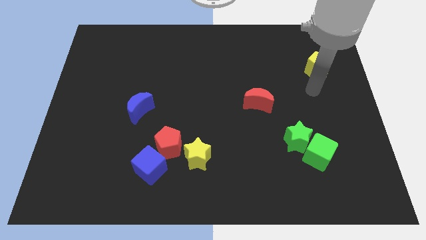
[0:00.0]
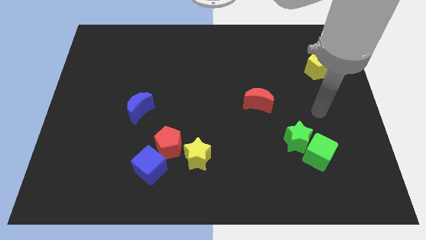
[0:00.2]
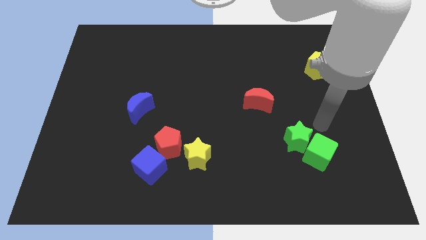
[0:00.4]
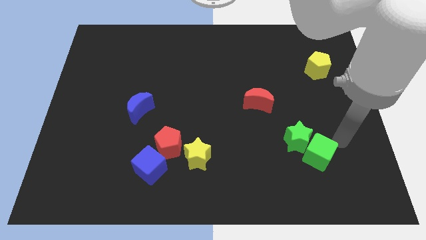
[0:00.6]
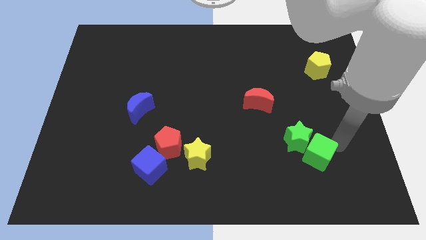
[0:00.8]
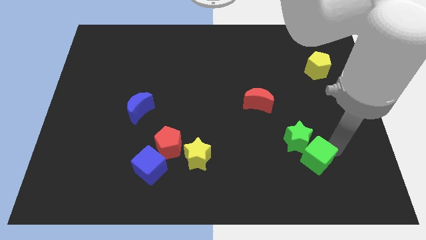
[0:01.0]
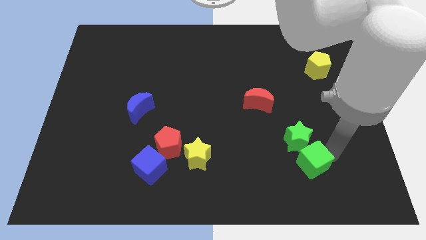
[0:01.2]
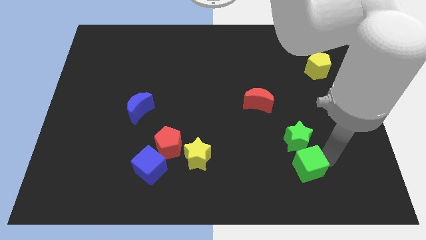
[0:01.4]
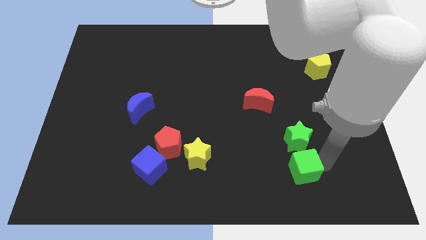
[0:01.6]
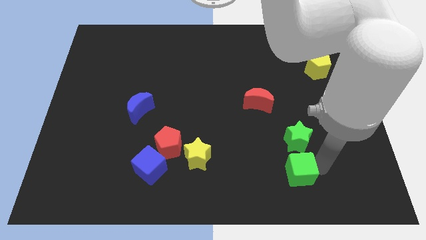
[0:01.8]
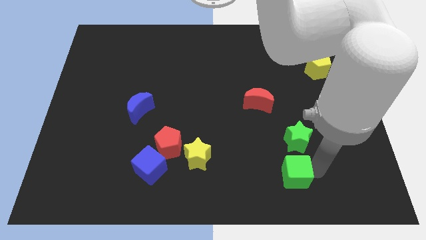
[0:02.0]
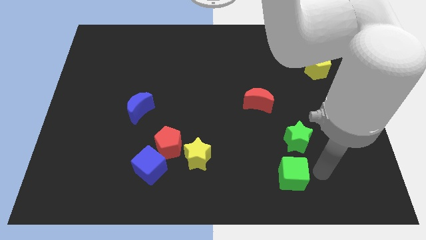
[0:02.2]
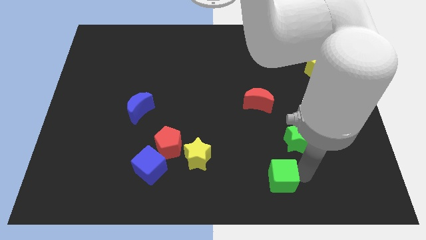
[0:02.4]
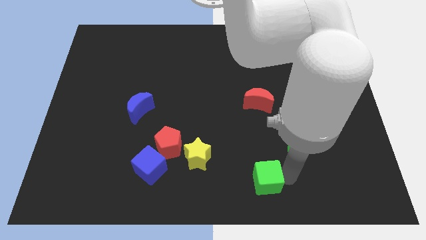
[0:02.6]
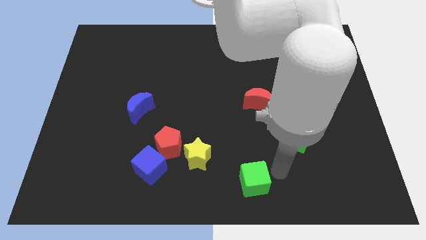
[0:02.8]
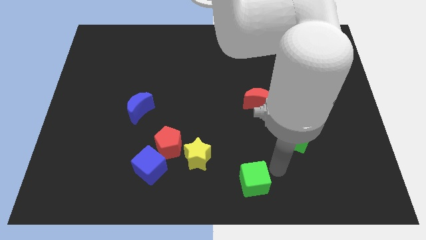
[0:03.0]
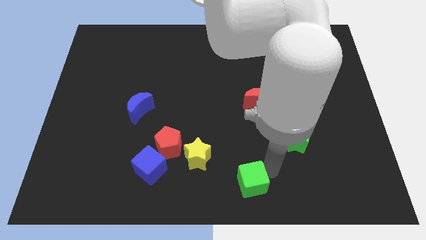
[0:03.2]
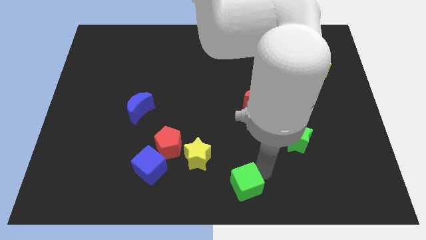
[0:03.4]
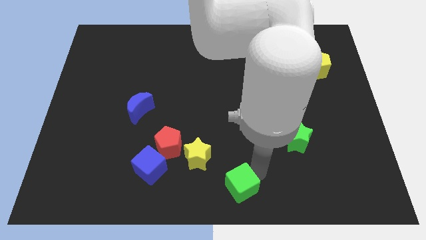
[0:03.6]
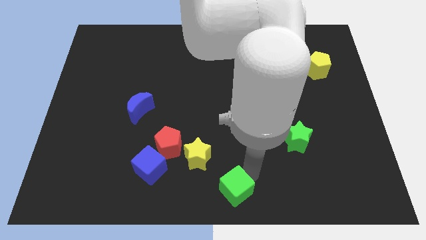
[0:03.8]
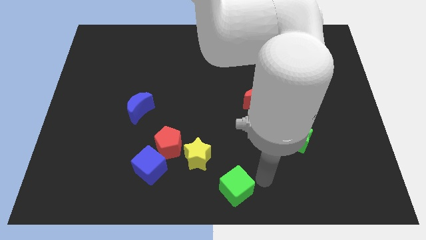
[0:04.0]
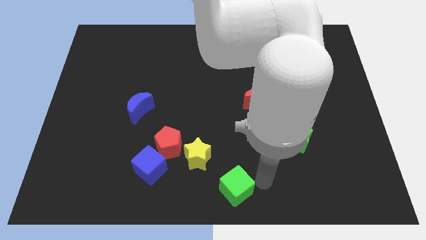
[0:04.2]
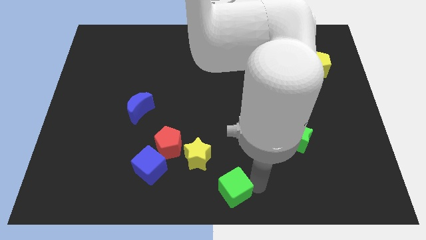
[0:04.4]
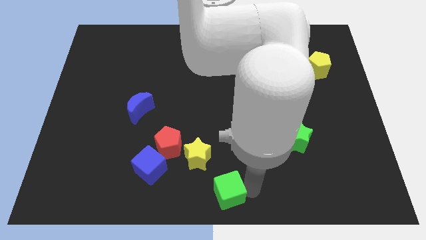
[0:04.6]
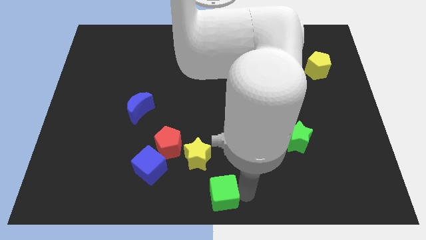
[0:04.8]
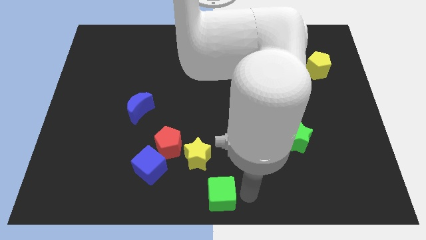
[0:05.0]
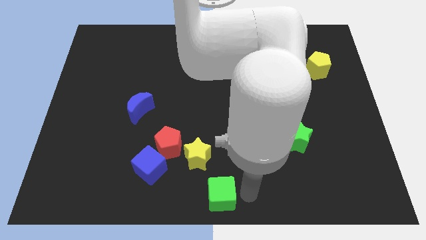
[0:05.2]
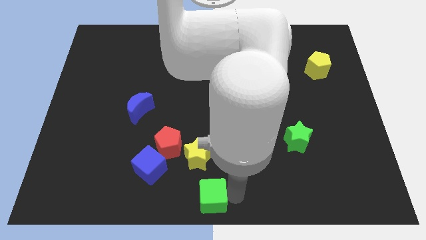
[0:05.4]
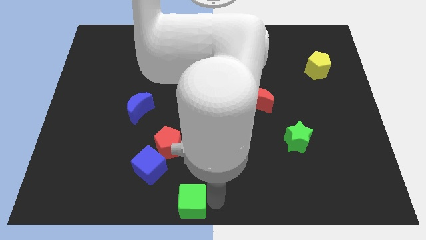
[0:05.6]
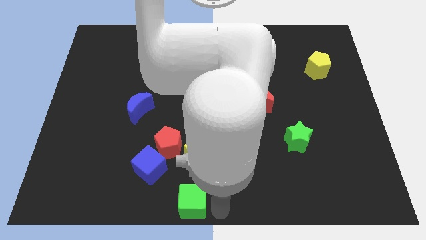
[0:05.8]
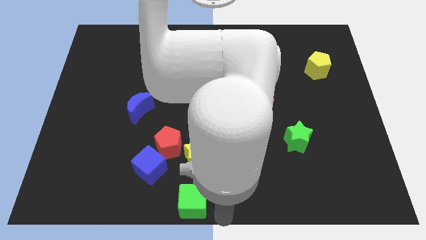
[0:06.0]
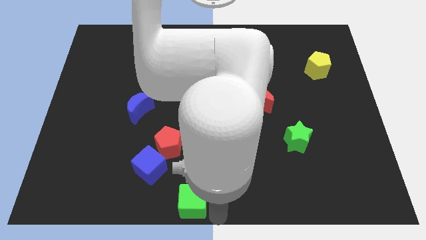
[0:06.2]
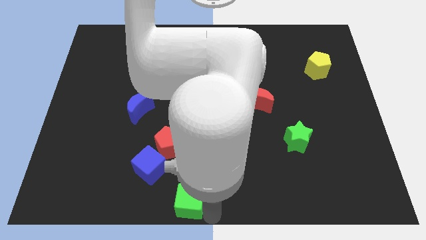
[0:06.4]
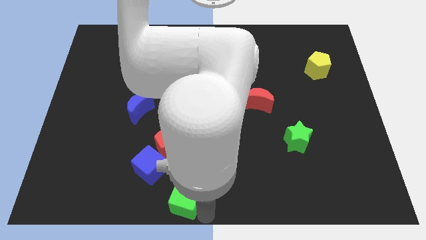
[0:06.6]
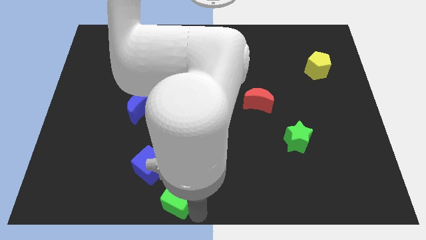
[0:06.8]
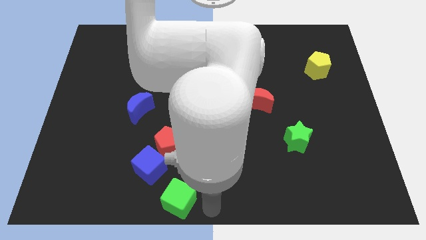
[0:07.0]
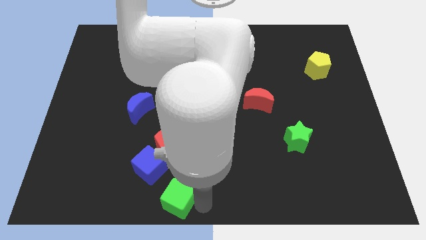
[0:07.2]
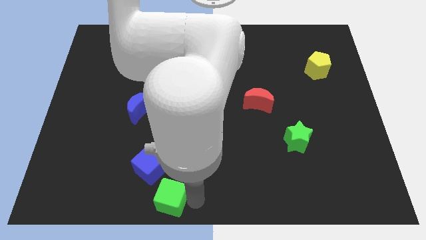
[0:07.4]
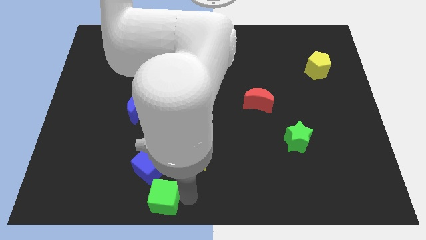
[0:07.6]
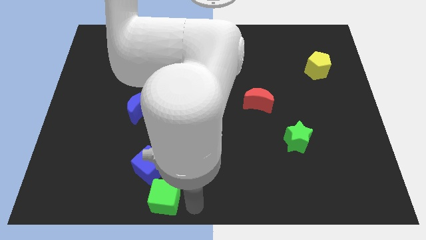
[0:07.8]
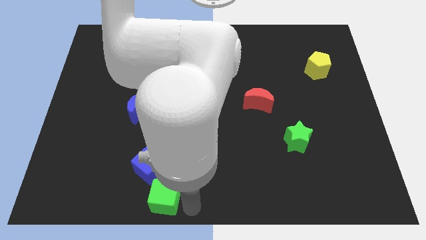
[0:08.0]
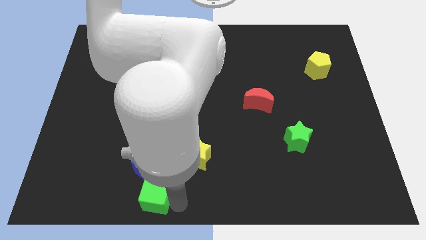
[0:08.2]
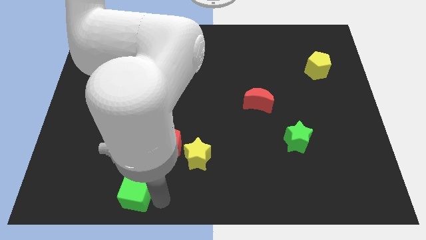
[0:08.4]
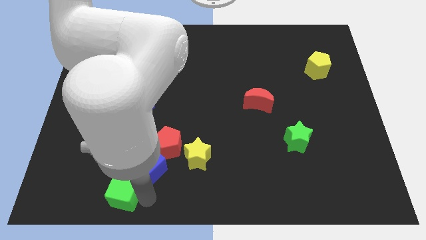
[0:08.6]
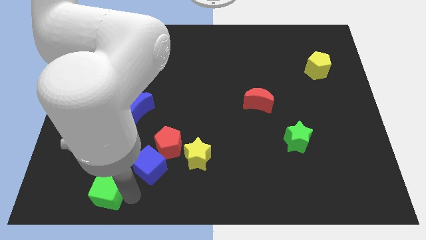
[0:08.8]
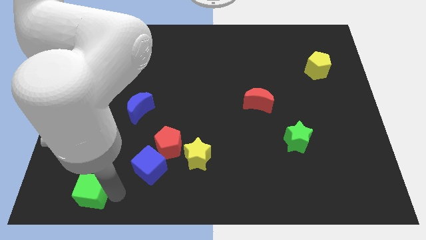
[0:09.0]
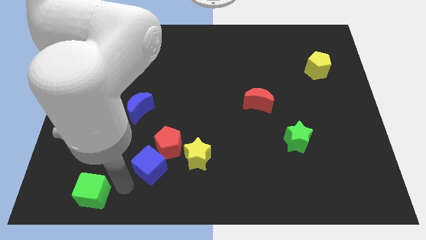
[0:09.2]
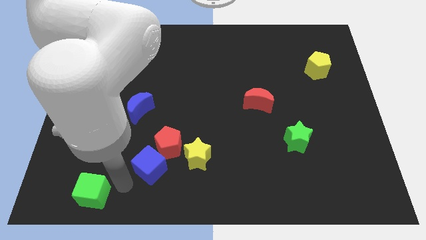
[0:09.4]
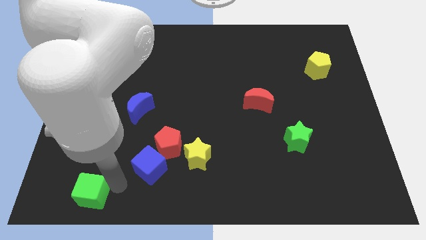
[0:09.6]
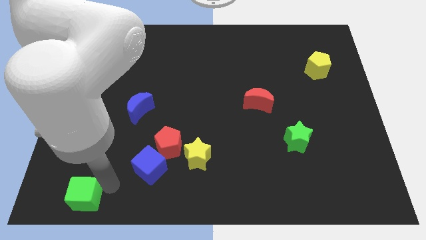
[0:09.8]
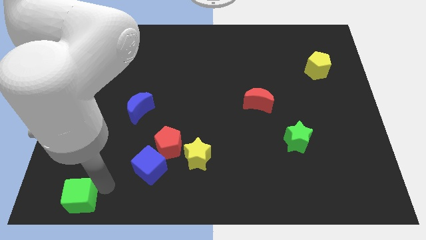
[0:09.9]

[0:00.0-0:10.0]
move the green cube to the bottom left corner

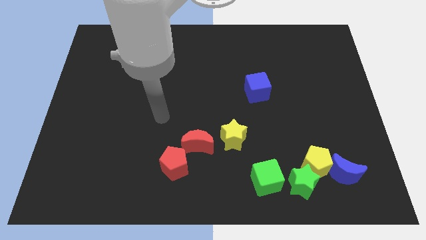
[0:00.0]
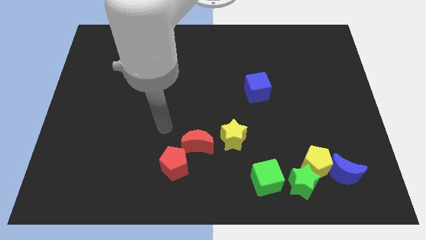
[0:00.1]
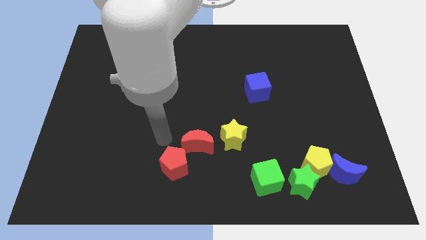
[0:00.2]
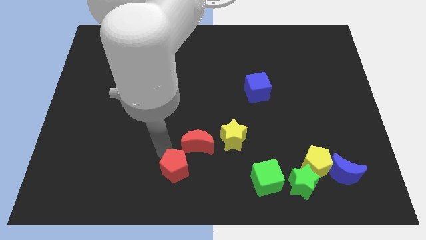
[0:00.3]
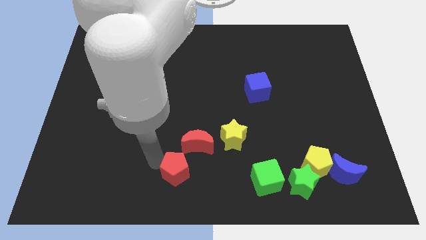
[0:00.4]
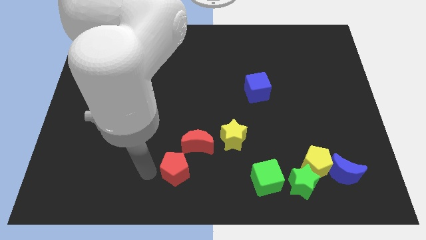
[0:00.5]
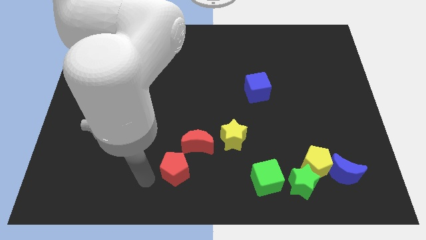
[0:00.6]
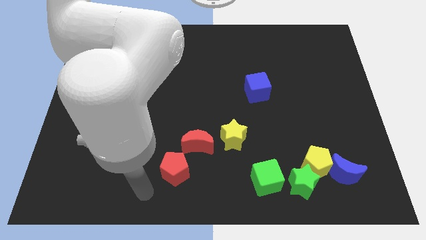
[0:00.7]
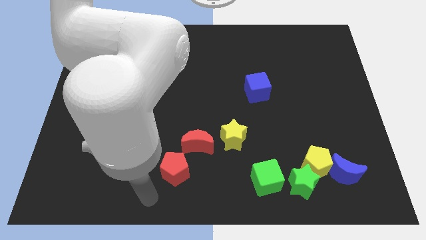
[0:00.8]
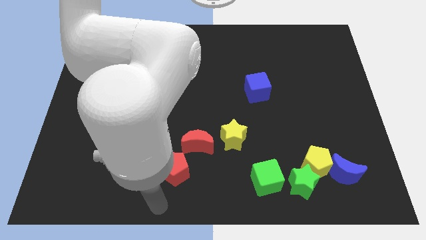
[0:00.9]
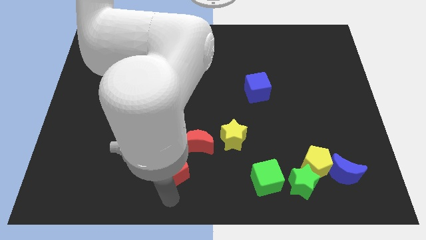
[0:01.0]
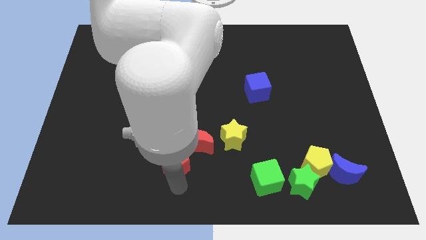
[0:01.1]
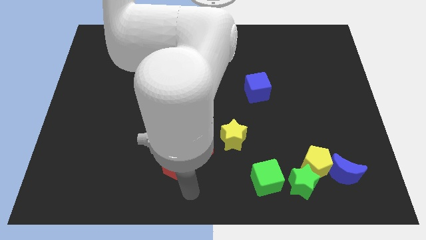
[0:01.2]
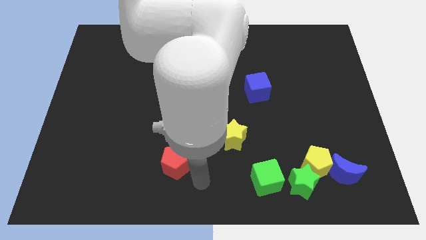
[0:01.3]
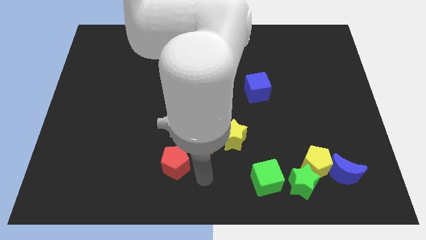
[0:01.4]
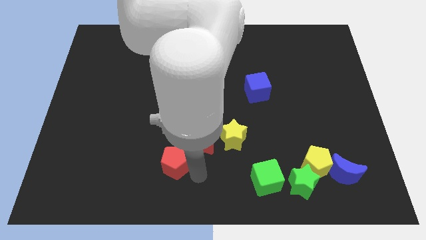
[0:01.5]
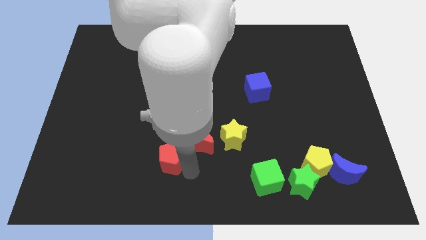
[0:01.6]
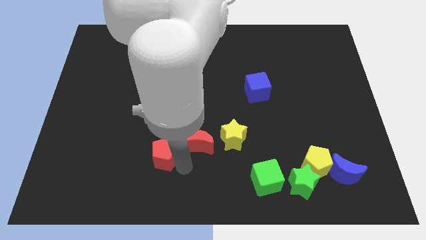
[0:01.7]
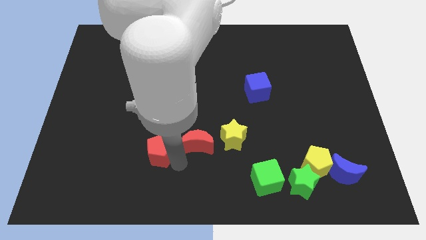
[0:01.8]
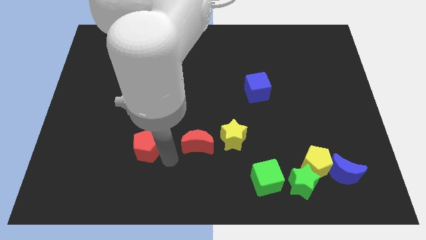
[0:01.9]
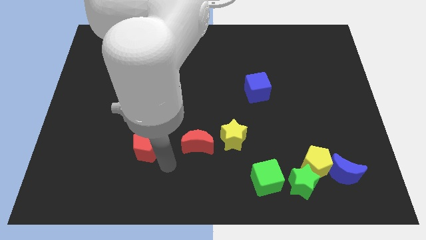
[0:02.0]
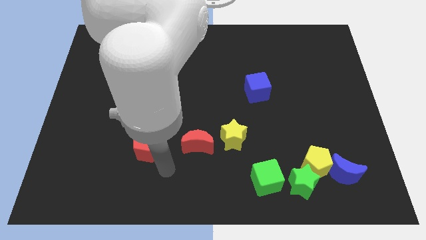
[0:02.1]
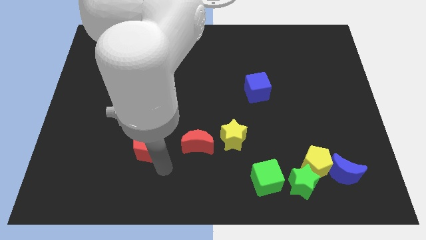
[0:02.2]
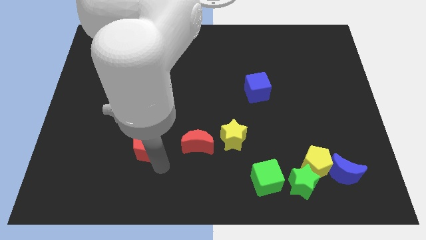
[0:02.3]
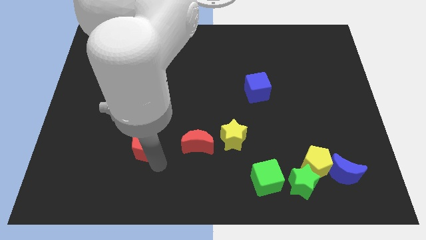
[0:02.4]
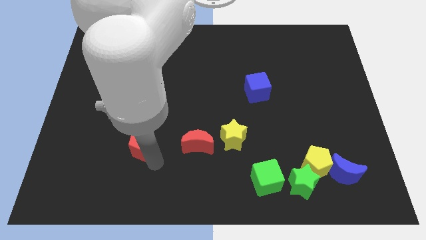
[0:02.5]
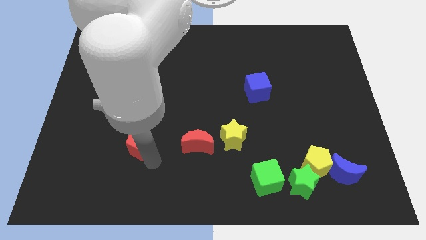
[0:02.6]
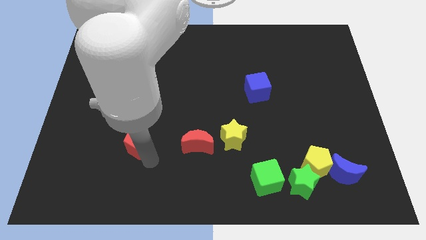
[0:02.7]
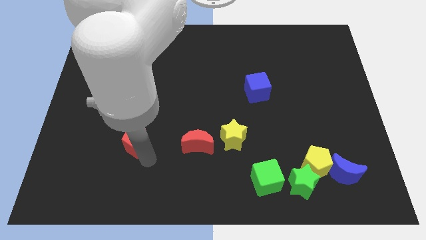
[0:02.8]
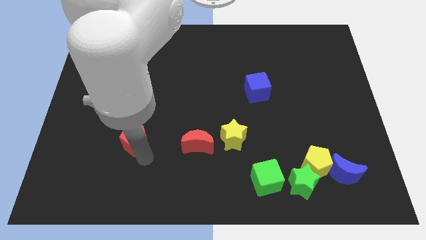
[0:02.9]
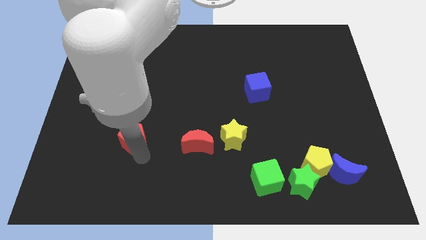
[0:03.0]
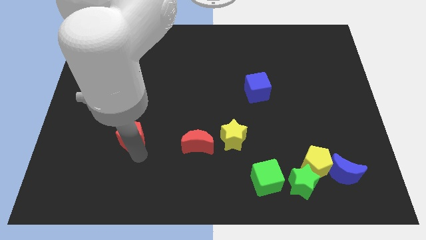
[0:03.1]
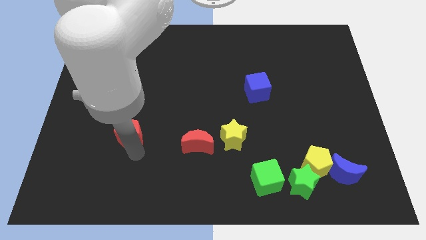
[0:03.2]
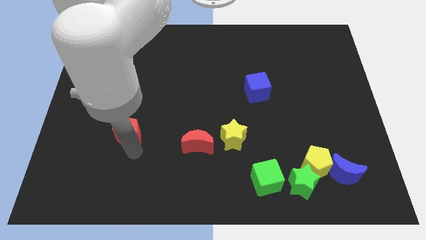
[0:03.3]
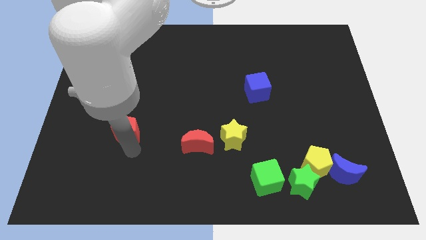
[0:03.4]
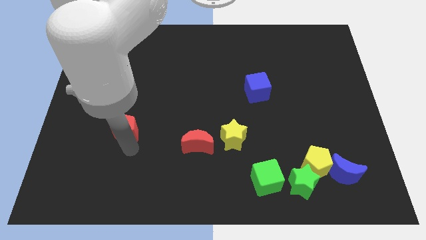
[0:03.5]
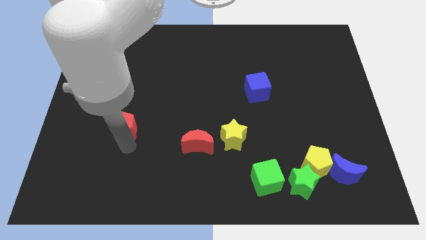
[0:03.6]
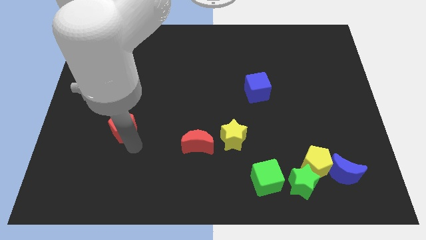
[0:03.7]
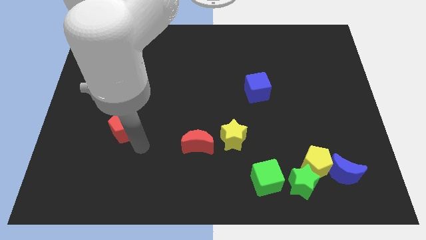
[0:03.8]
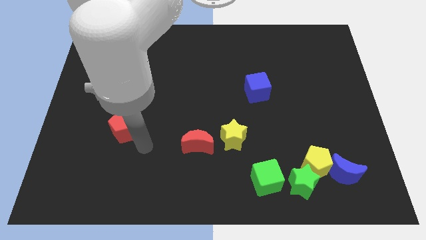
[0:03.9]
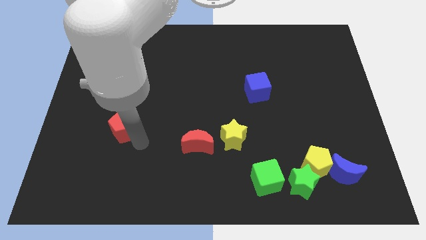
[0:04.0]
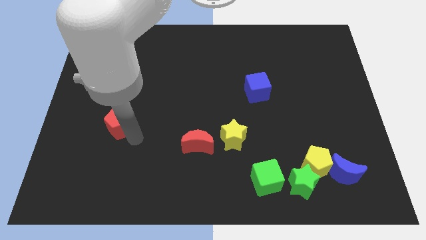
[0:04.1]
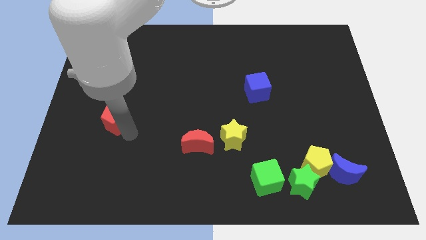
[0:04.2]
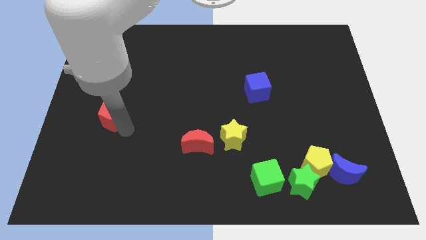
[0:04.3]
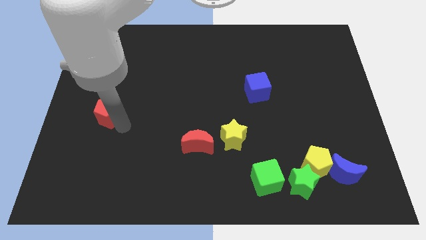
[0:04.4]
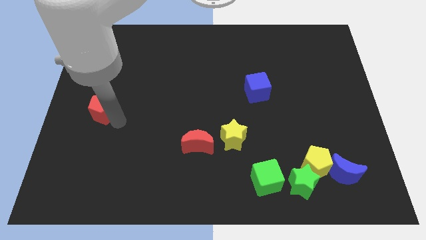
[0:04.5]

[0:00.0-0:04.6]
move the red pentagon to the left side of the board
